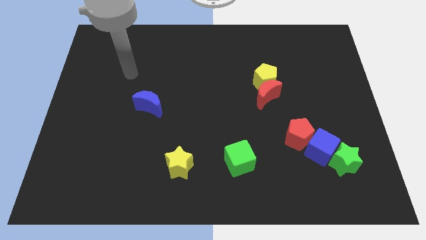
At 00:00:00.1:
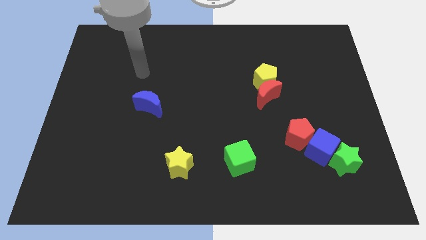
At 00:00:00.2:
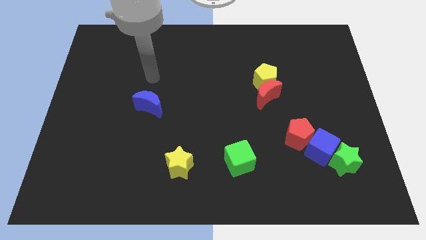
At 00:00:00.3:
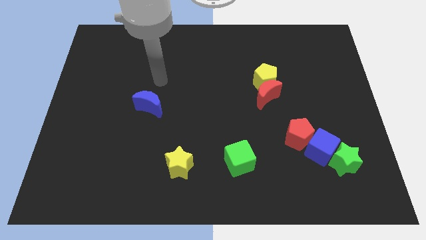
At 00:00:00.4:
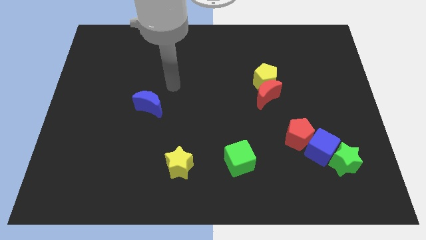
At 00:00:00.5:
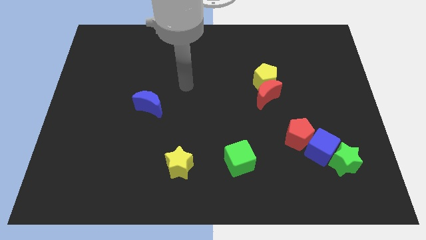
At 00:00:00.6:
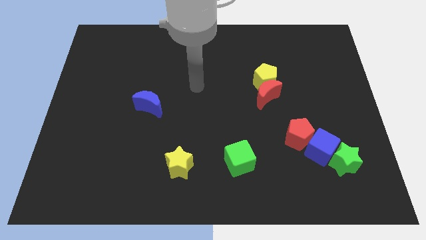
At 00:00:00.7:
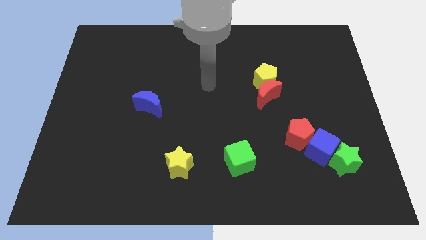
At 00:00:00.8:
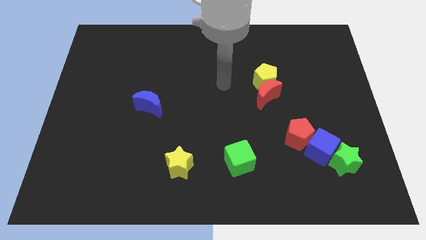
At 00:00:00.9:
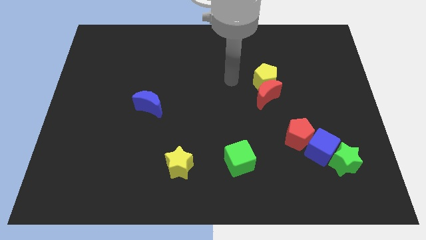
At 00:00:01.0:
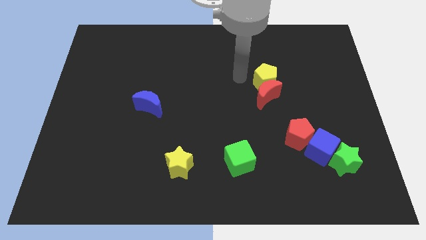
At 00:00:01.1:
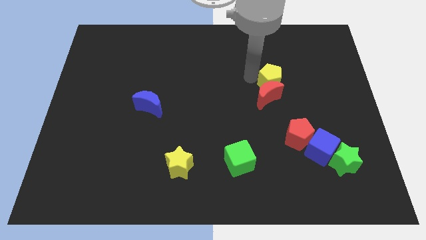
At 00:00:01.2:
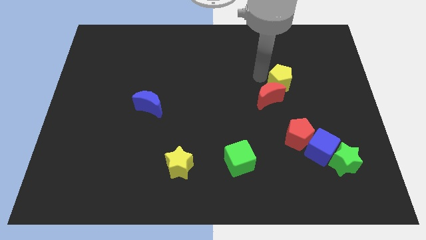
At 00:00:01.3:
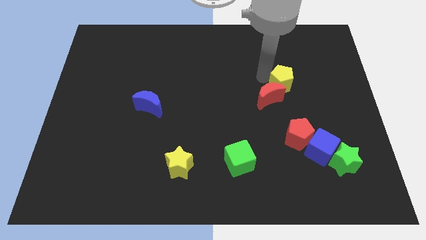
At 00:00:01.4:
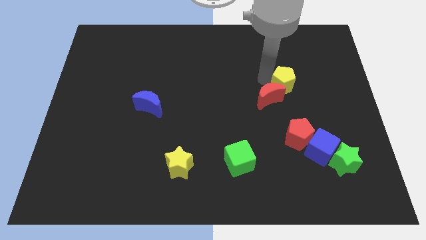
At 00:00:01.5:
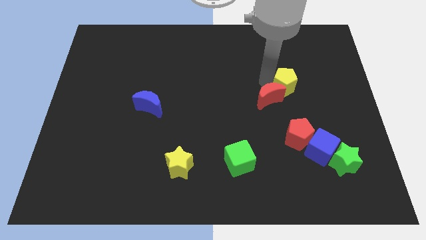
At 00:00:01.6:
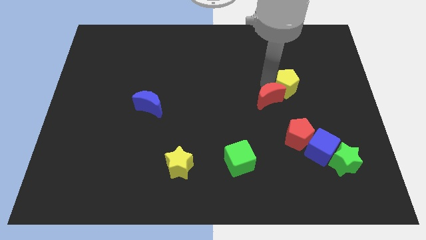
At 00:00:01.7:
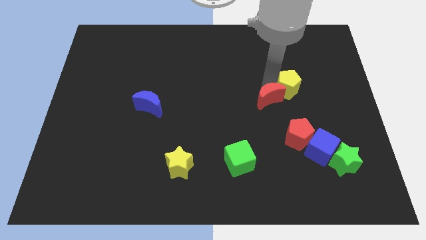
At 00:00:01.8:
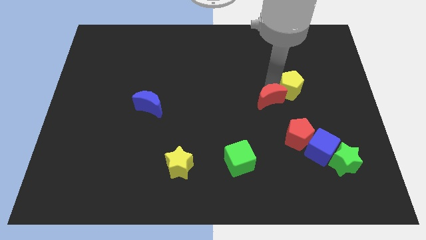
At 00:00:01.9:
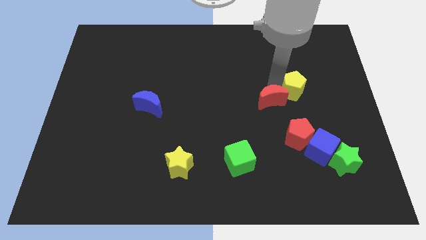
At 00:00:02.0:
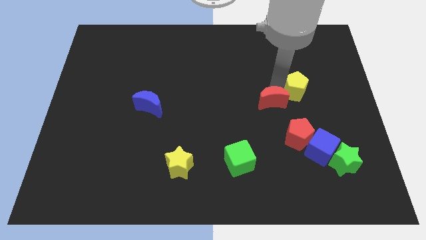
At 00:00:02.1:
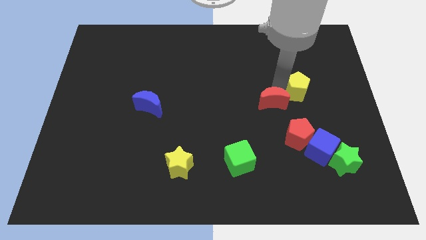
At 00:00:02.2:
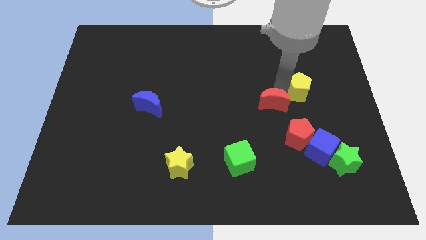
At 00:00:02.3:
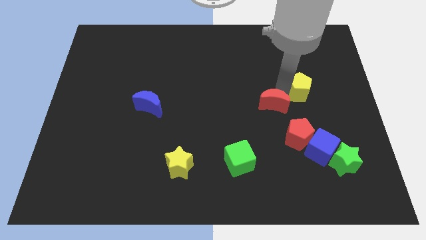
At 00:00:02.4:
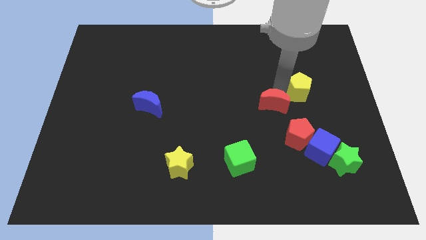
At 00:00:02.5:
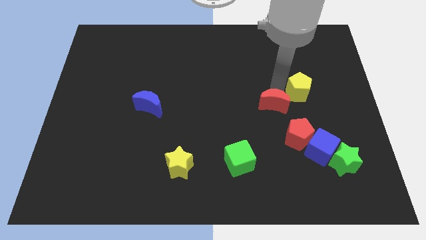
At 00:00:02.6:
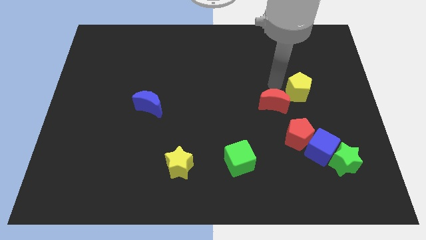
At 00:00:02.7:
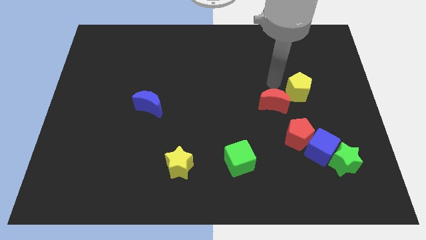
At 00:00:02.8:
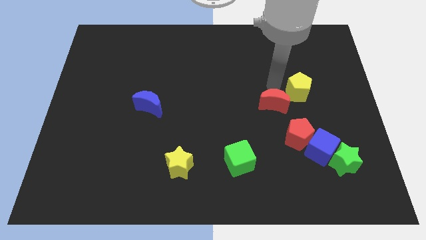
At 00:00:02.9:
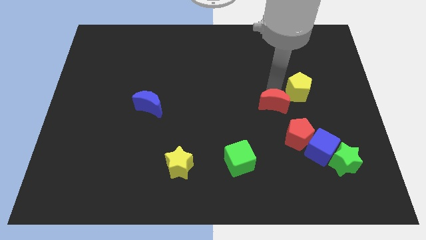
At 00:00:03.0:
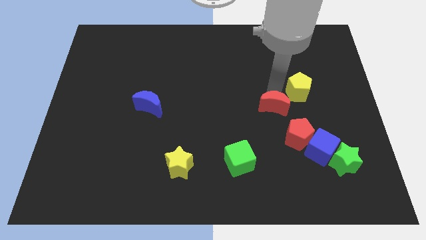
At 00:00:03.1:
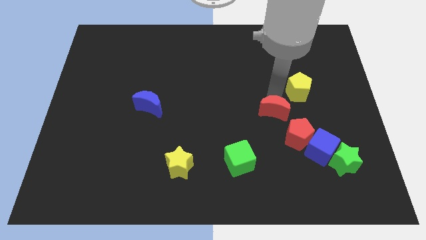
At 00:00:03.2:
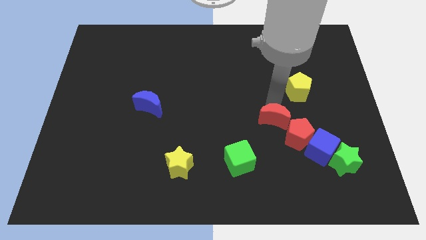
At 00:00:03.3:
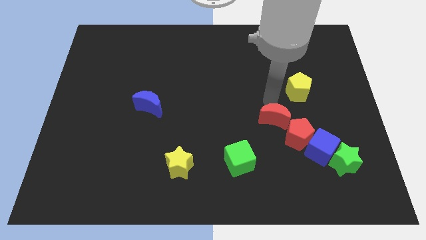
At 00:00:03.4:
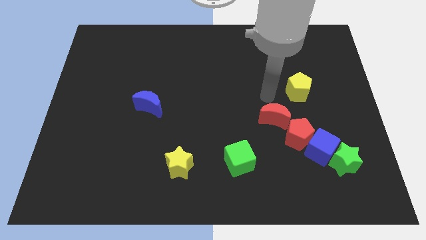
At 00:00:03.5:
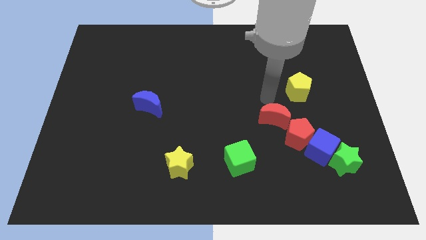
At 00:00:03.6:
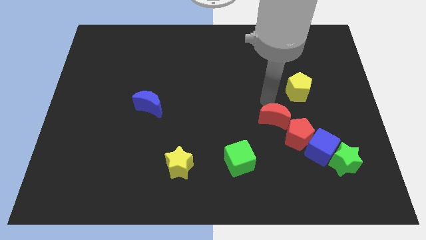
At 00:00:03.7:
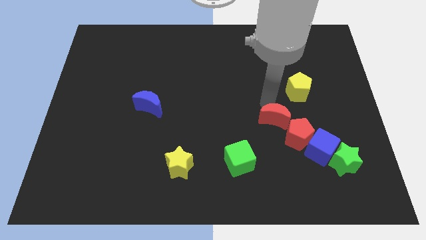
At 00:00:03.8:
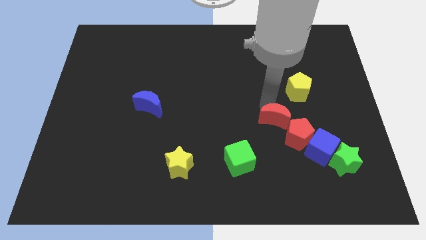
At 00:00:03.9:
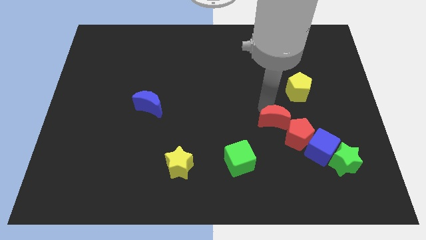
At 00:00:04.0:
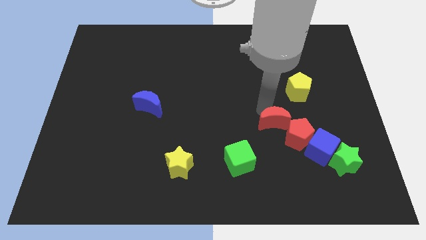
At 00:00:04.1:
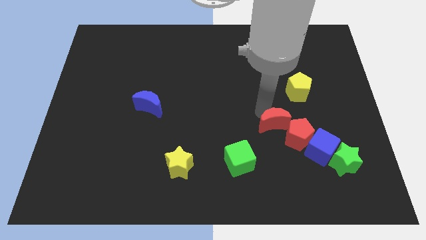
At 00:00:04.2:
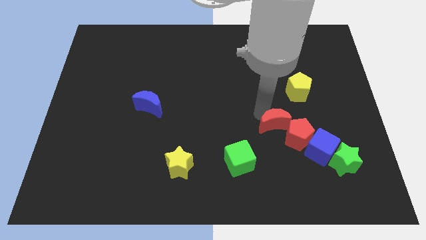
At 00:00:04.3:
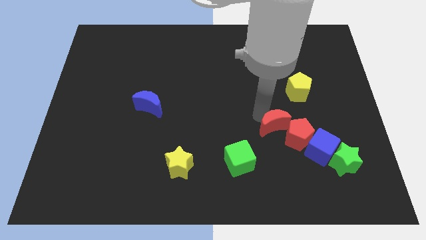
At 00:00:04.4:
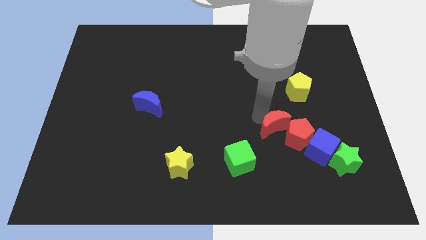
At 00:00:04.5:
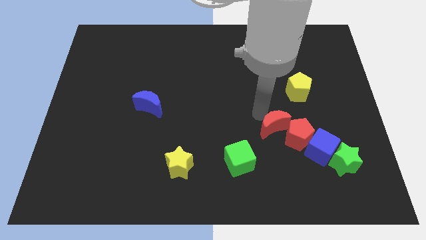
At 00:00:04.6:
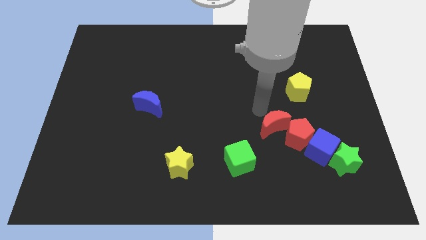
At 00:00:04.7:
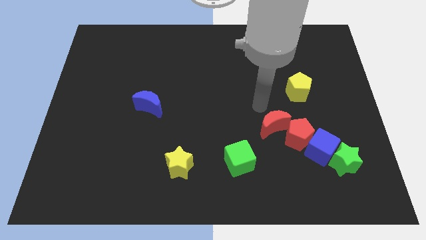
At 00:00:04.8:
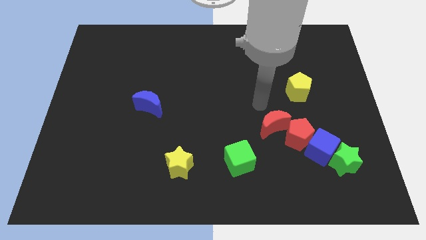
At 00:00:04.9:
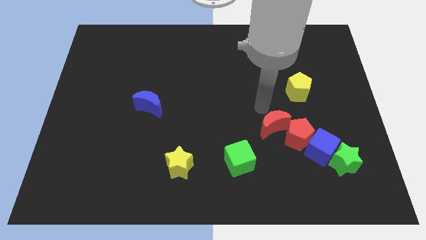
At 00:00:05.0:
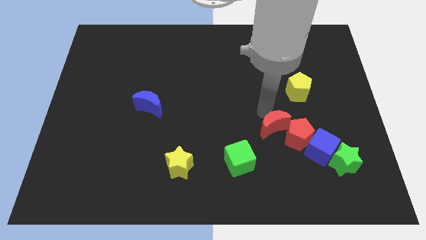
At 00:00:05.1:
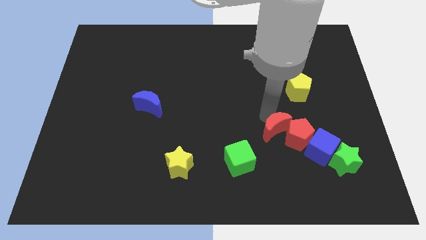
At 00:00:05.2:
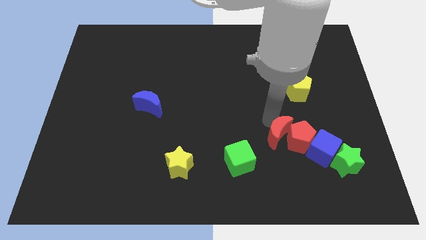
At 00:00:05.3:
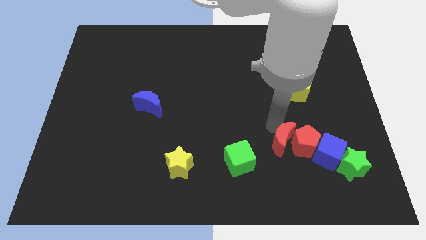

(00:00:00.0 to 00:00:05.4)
push the red moon to the right side of the green cube

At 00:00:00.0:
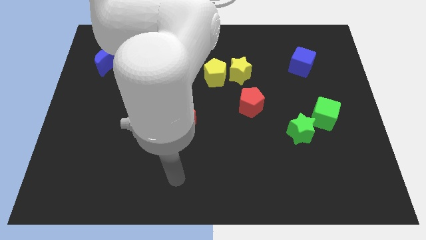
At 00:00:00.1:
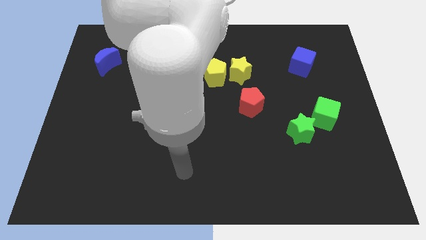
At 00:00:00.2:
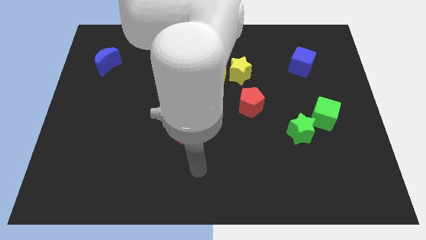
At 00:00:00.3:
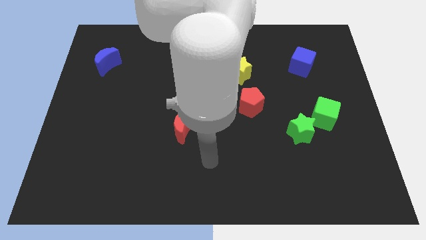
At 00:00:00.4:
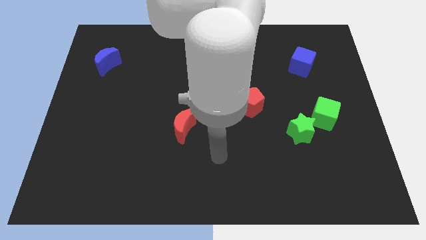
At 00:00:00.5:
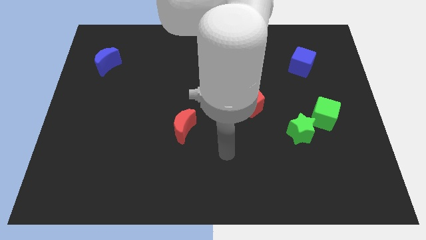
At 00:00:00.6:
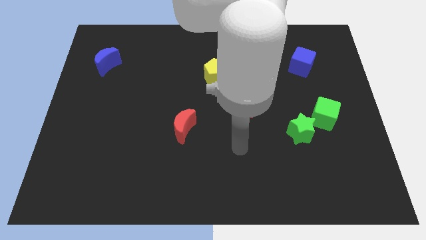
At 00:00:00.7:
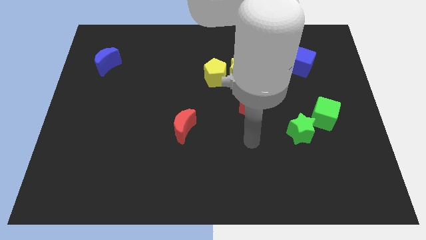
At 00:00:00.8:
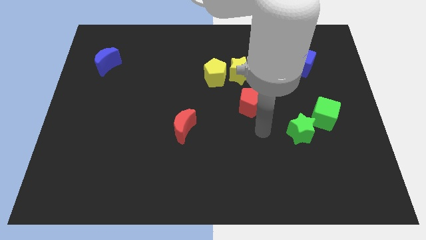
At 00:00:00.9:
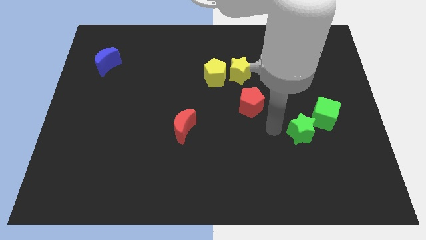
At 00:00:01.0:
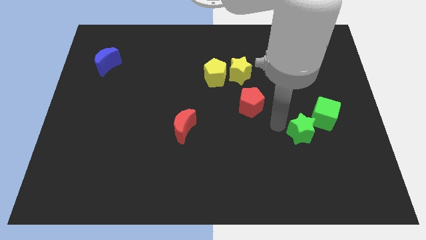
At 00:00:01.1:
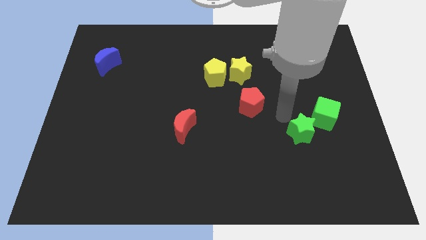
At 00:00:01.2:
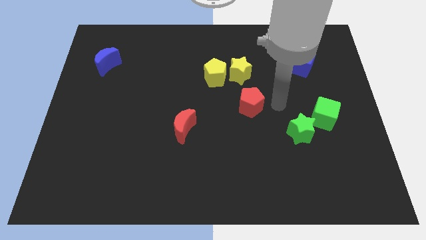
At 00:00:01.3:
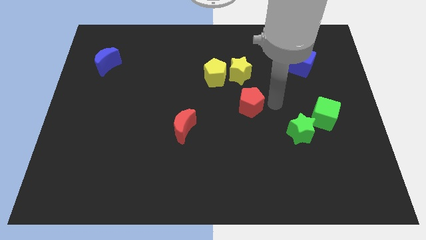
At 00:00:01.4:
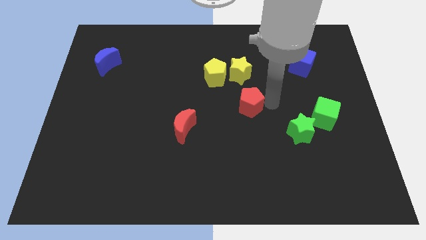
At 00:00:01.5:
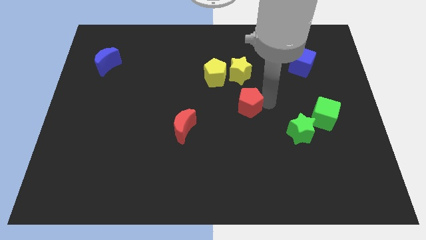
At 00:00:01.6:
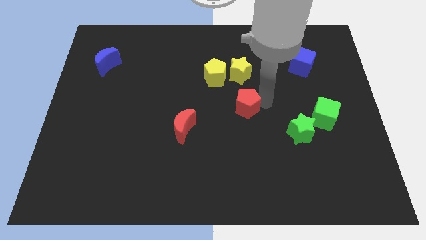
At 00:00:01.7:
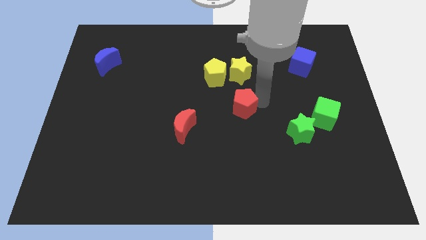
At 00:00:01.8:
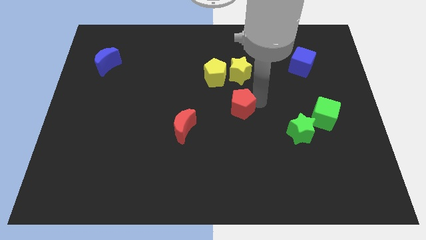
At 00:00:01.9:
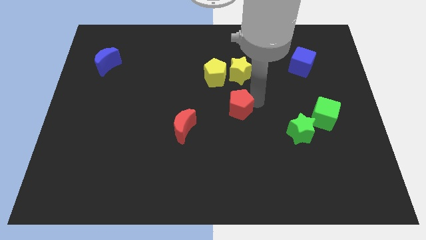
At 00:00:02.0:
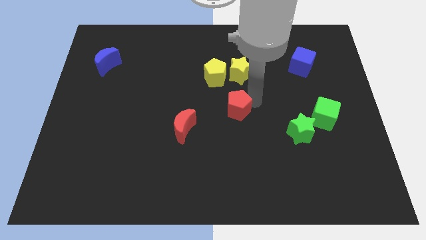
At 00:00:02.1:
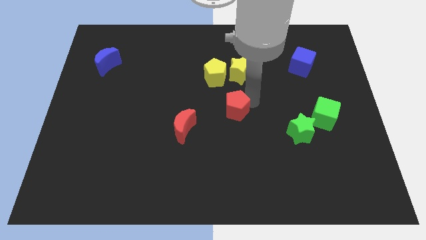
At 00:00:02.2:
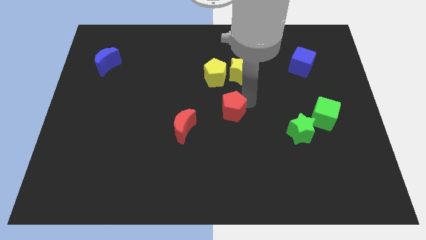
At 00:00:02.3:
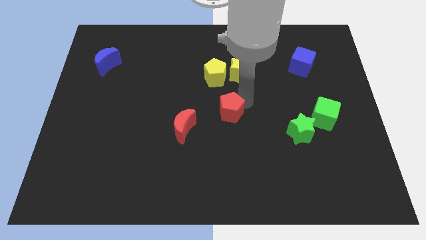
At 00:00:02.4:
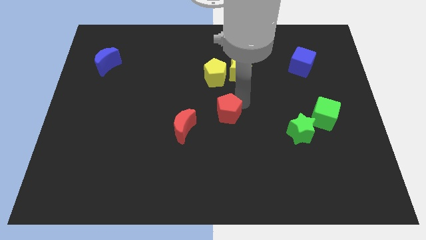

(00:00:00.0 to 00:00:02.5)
move the red pentagon diagonally up and to the right of the red moon
